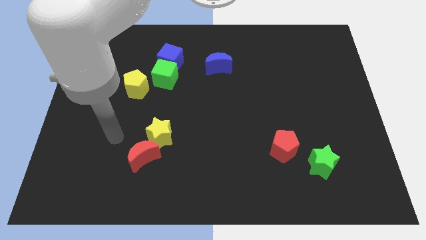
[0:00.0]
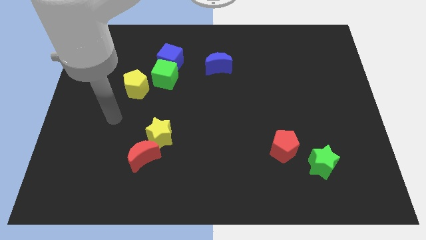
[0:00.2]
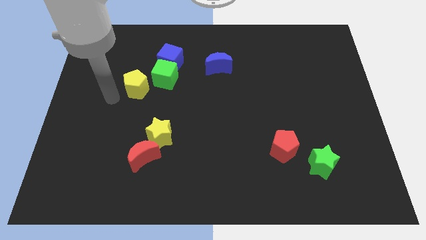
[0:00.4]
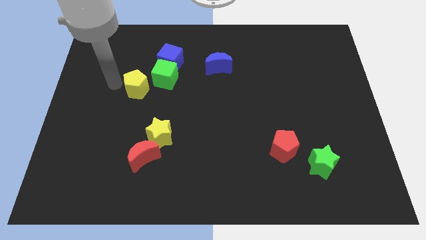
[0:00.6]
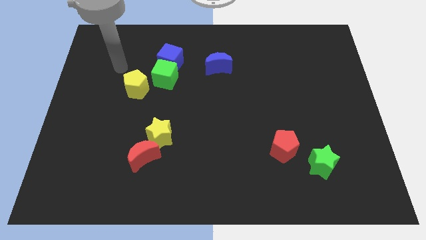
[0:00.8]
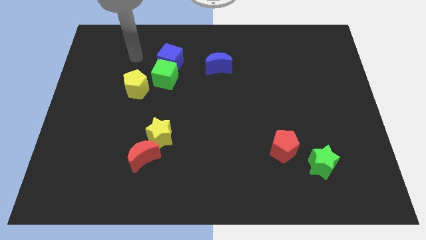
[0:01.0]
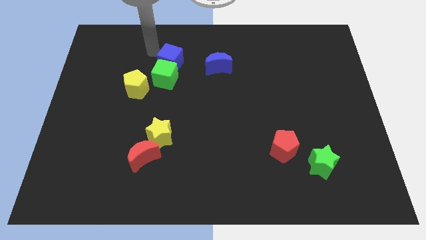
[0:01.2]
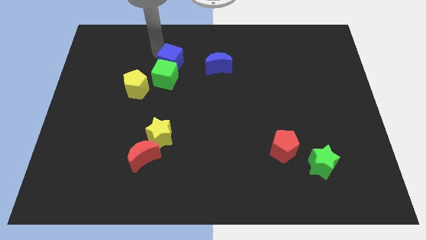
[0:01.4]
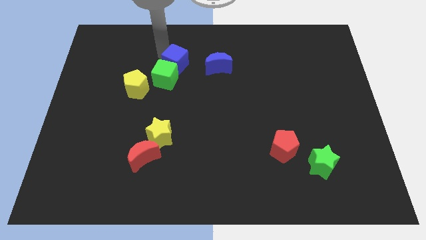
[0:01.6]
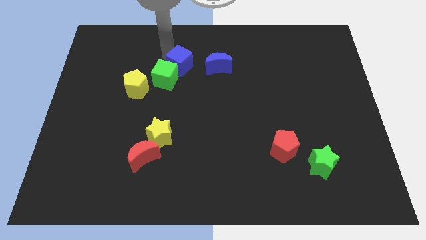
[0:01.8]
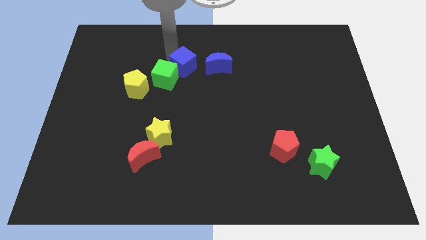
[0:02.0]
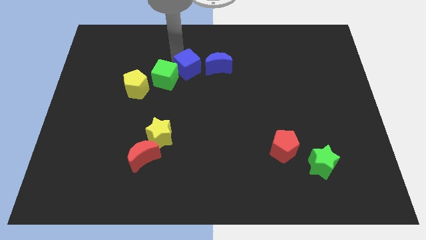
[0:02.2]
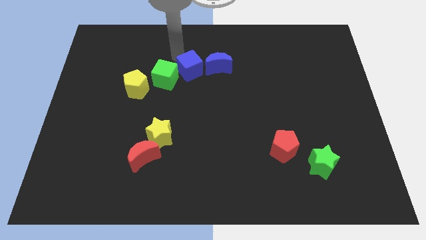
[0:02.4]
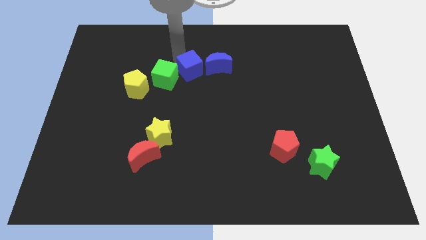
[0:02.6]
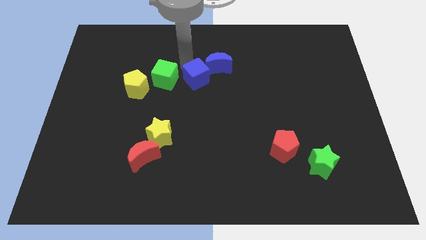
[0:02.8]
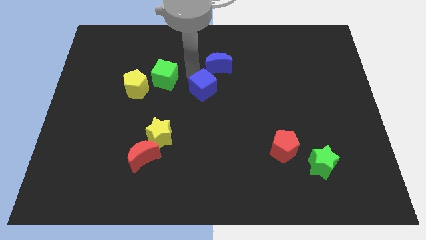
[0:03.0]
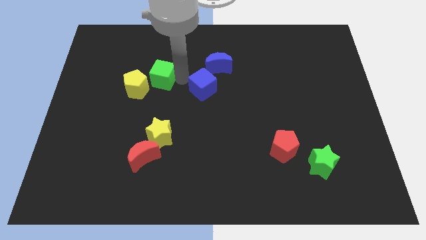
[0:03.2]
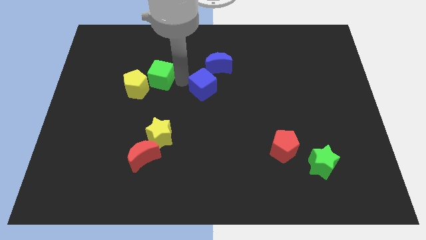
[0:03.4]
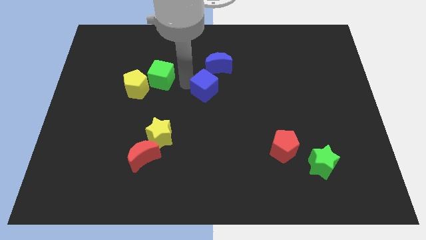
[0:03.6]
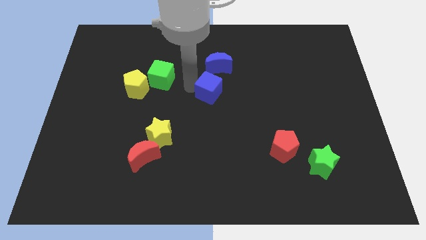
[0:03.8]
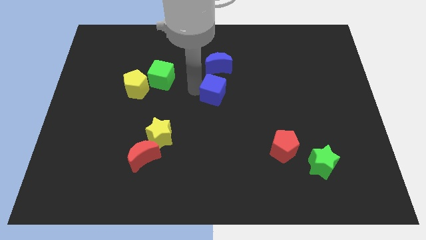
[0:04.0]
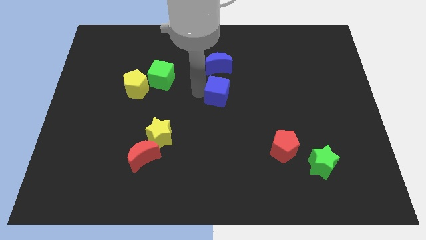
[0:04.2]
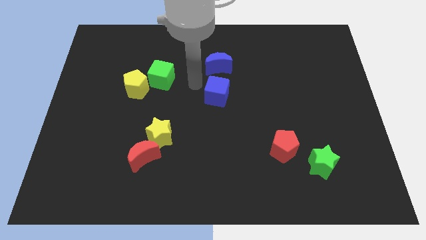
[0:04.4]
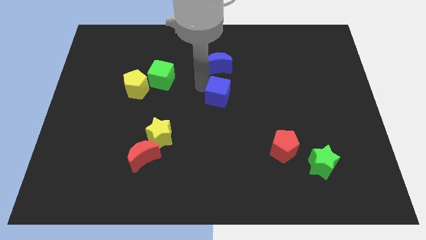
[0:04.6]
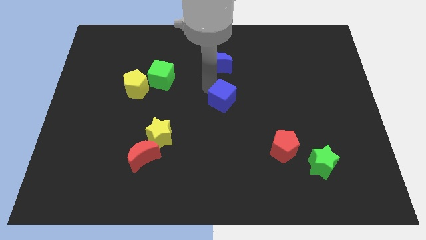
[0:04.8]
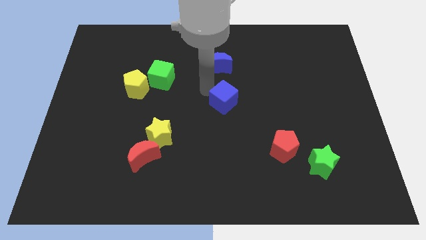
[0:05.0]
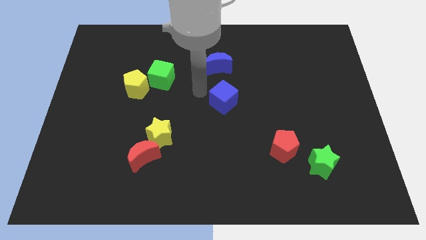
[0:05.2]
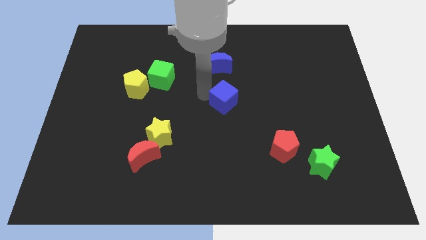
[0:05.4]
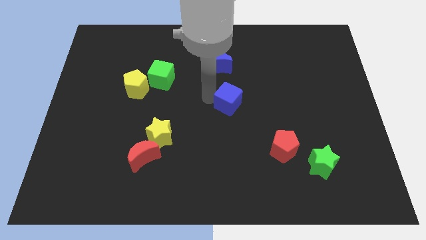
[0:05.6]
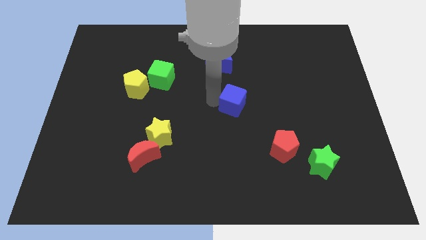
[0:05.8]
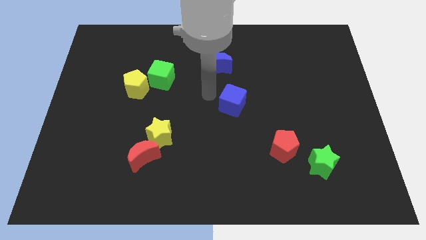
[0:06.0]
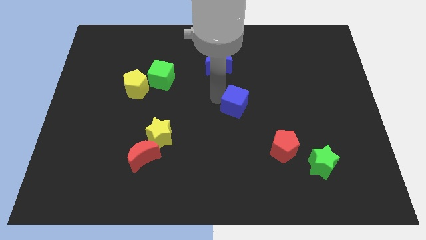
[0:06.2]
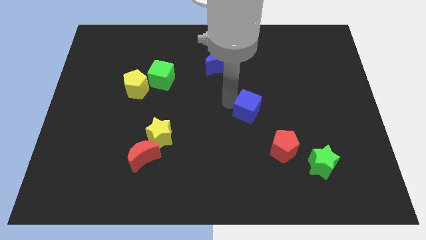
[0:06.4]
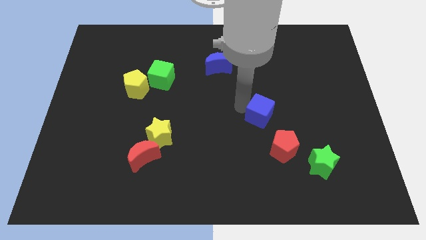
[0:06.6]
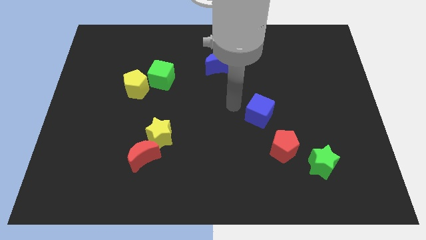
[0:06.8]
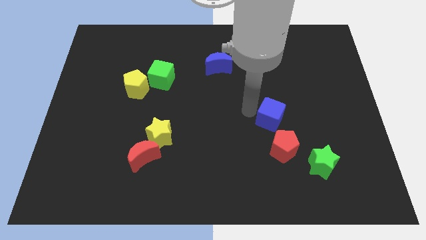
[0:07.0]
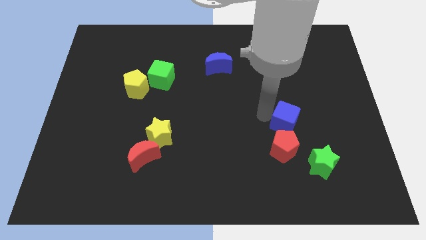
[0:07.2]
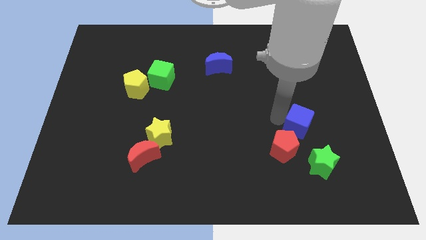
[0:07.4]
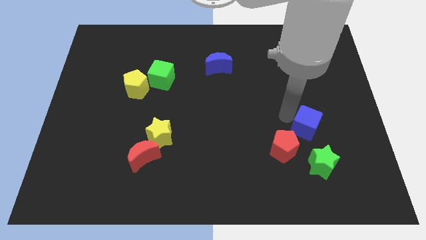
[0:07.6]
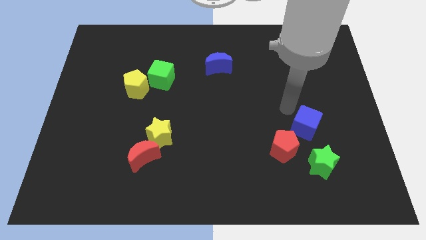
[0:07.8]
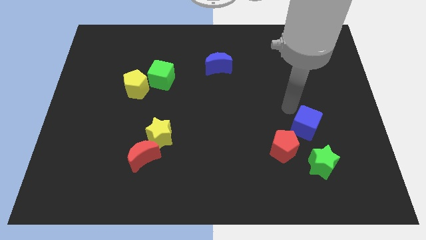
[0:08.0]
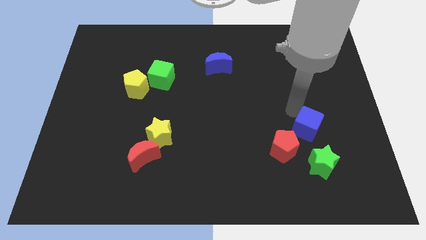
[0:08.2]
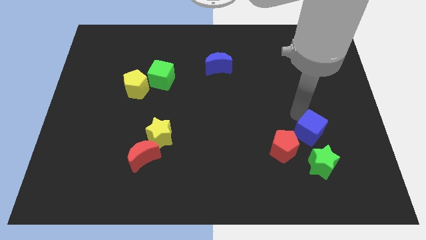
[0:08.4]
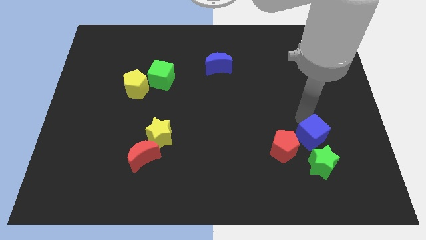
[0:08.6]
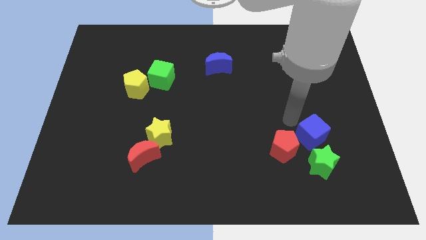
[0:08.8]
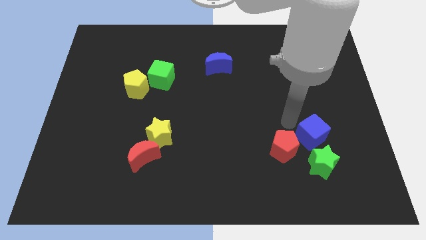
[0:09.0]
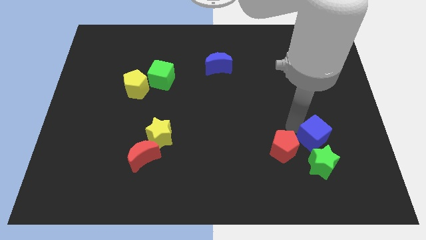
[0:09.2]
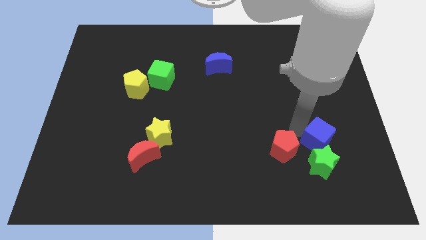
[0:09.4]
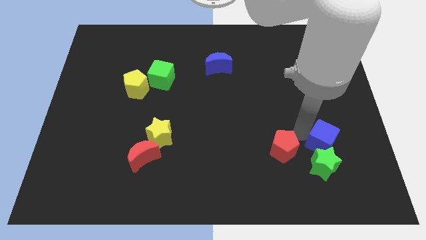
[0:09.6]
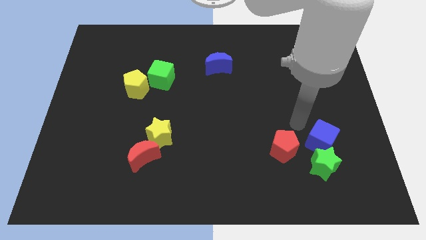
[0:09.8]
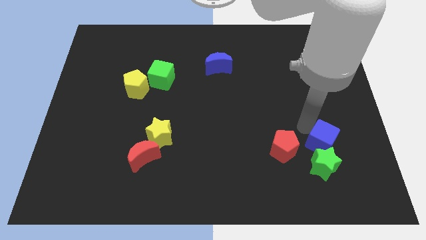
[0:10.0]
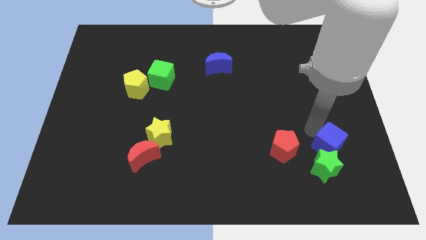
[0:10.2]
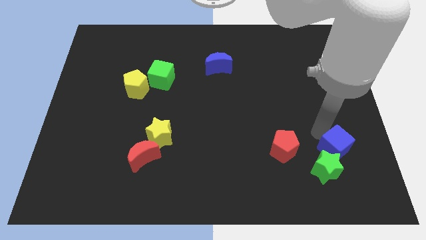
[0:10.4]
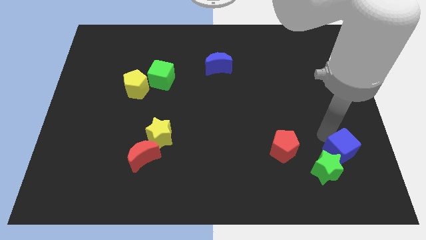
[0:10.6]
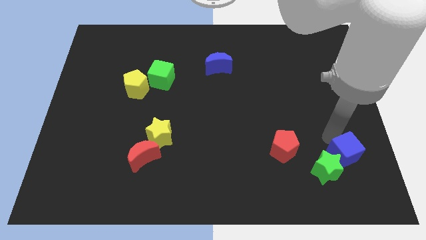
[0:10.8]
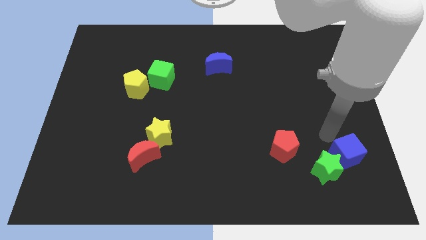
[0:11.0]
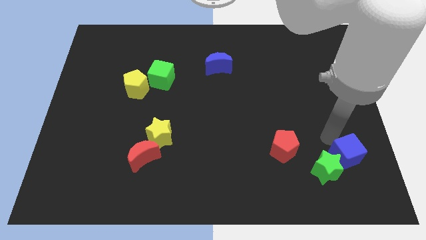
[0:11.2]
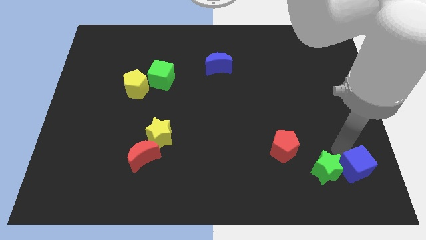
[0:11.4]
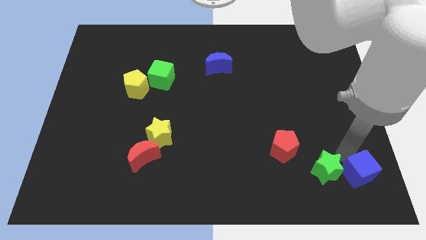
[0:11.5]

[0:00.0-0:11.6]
slide the blue cube to the lower right corner
